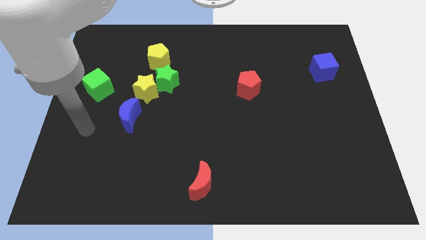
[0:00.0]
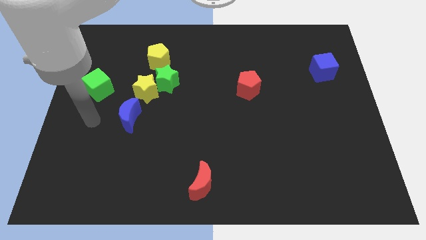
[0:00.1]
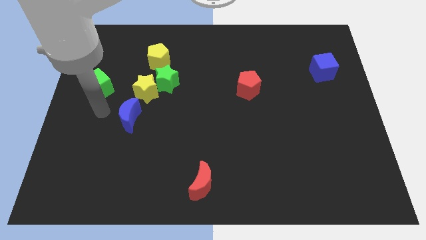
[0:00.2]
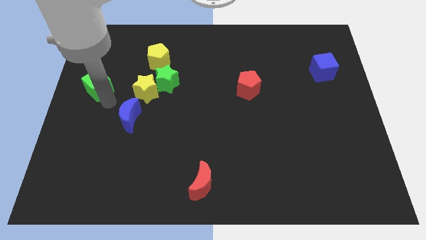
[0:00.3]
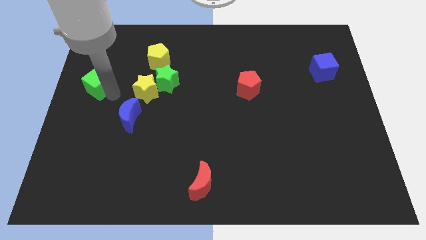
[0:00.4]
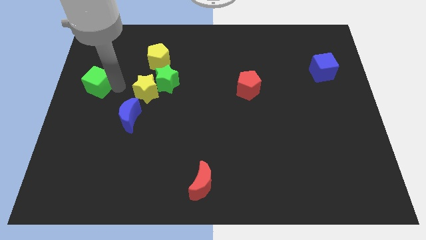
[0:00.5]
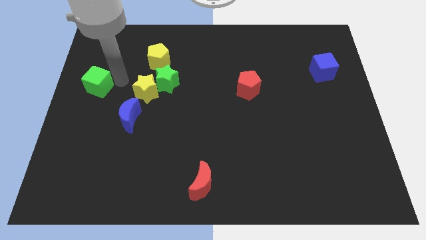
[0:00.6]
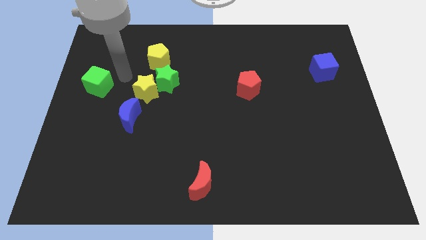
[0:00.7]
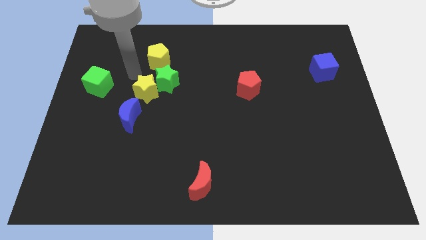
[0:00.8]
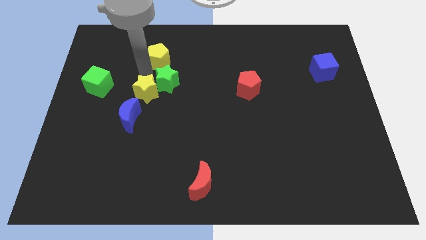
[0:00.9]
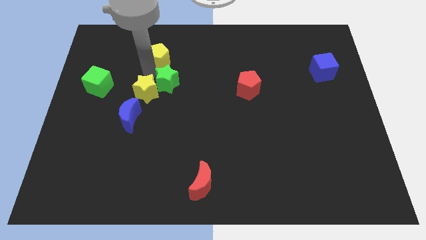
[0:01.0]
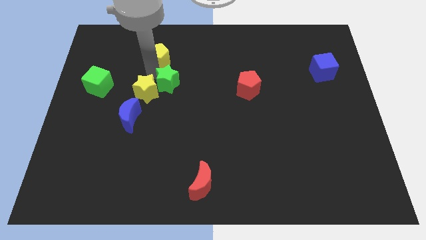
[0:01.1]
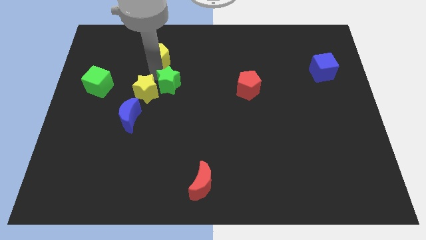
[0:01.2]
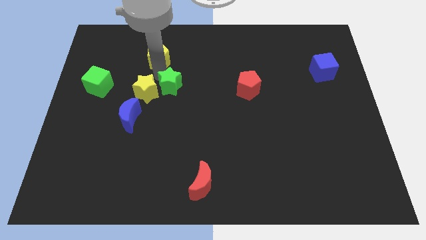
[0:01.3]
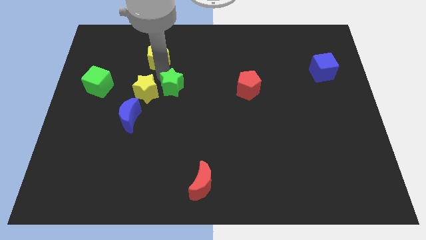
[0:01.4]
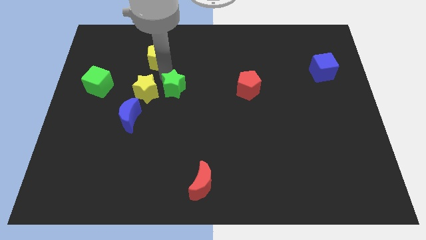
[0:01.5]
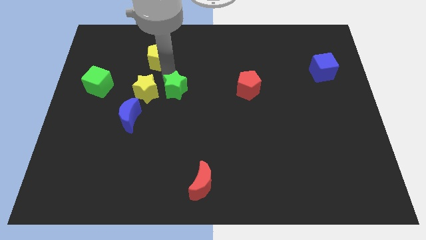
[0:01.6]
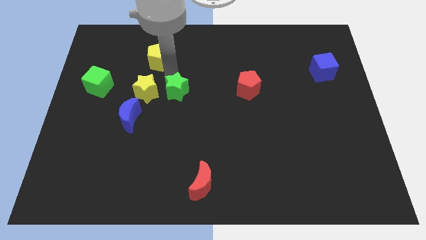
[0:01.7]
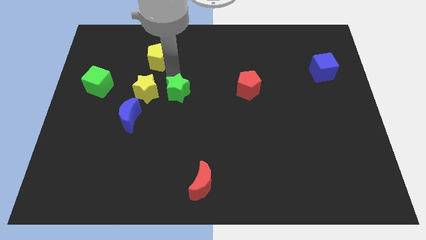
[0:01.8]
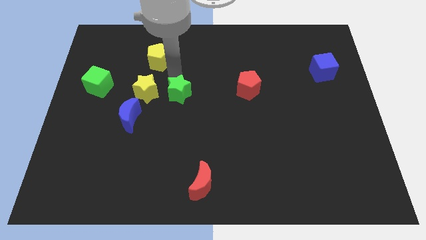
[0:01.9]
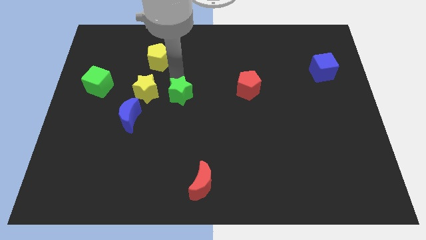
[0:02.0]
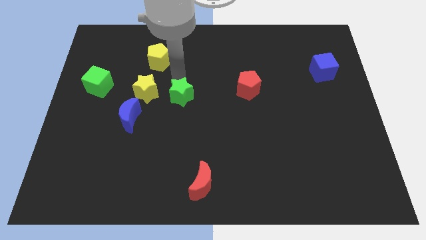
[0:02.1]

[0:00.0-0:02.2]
pull the green star apart from the yellow star and yellow pentagon

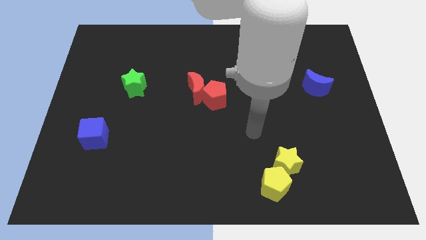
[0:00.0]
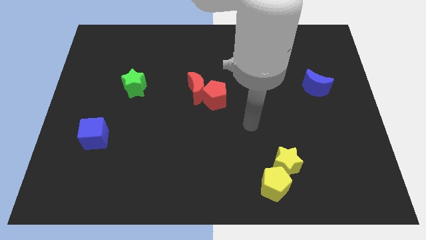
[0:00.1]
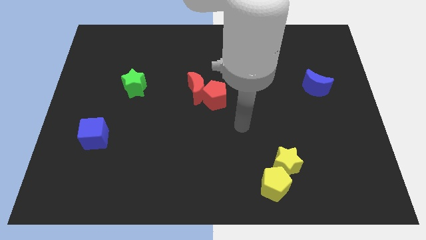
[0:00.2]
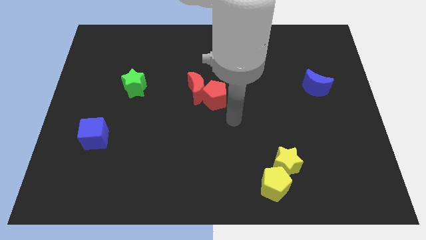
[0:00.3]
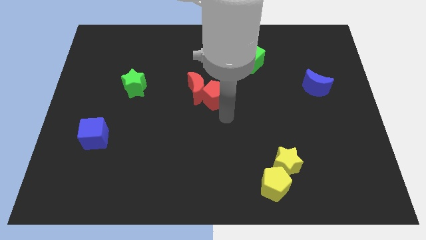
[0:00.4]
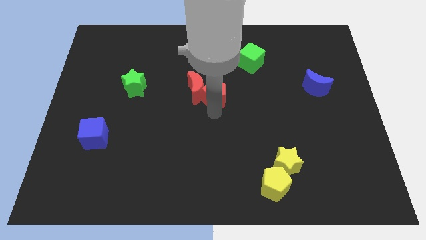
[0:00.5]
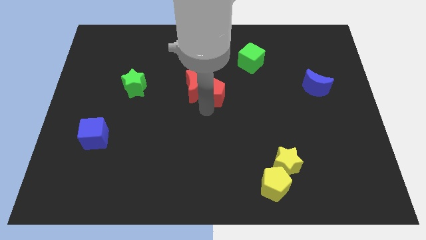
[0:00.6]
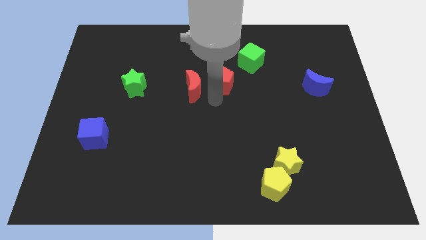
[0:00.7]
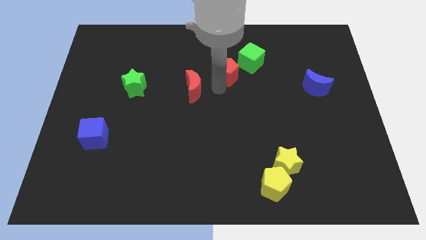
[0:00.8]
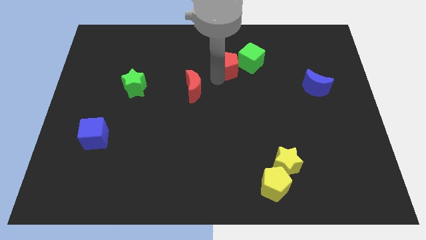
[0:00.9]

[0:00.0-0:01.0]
move the red moon away from the red pentagon

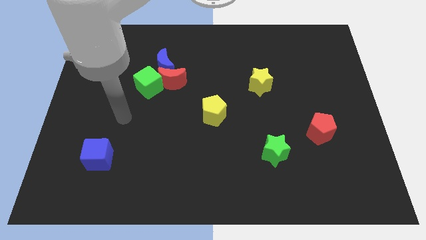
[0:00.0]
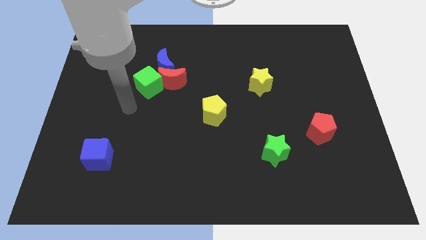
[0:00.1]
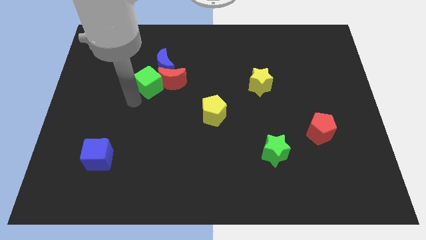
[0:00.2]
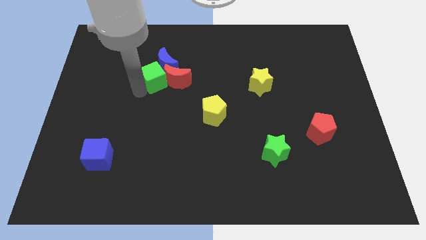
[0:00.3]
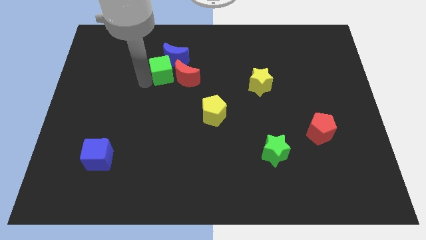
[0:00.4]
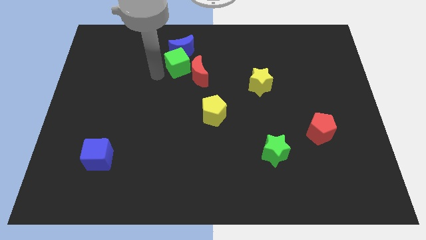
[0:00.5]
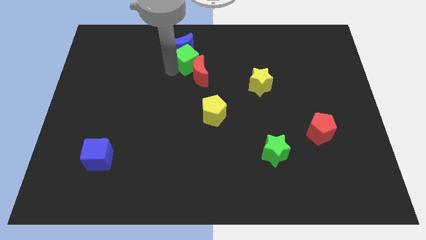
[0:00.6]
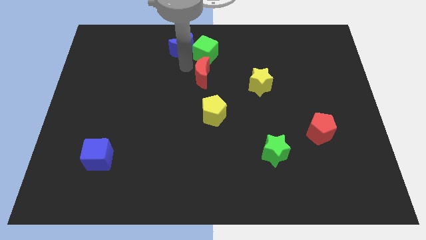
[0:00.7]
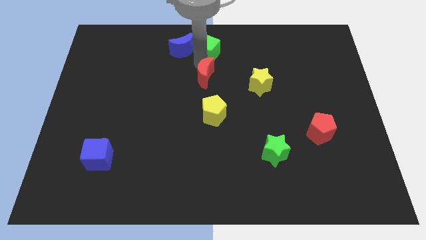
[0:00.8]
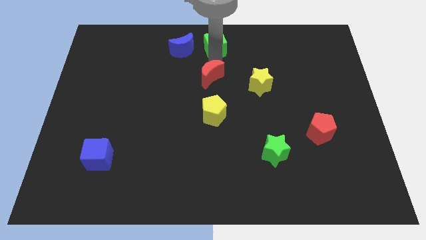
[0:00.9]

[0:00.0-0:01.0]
separate the red moon from the blue moon and green cube

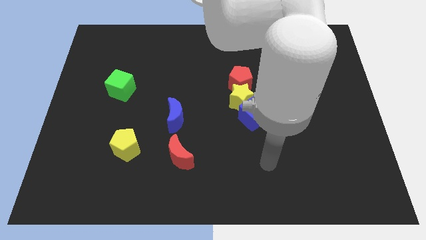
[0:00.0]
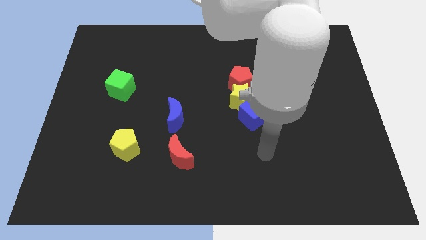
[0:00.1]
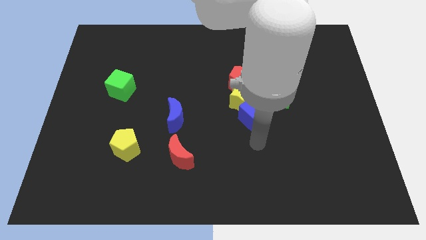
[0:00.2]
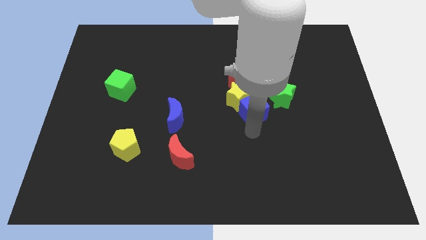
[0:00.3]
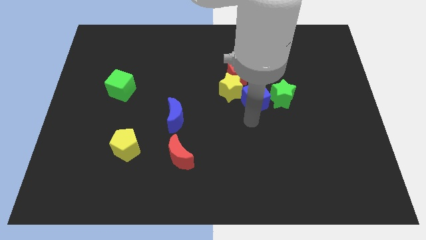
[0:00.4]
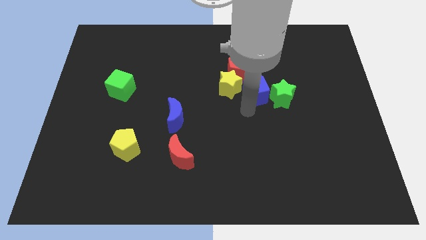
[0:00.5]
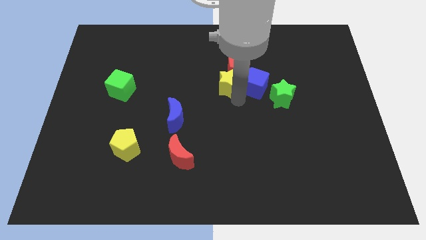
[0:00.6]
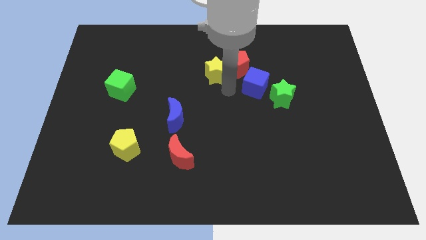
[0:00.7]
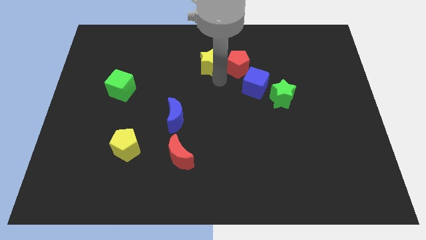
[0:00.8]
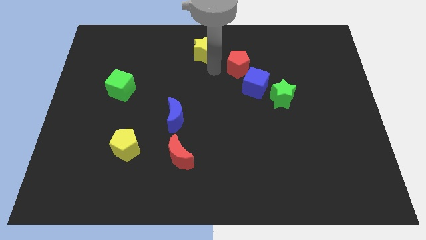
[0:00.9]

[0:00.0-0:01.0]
separate the red pentagon from the yellow star

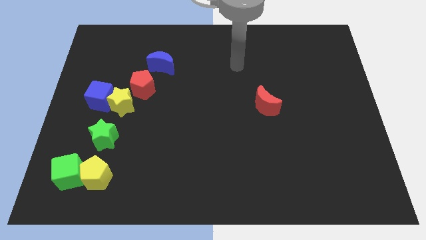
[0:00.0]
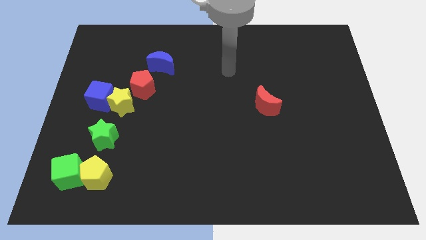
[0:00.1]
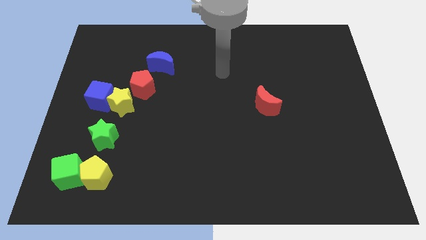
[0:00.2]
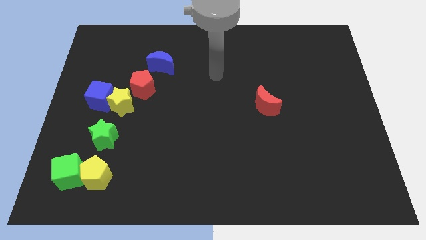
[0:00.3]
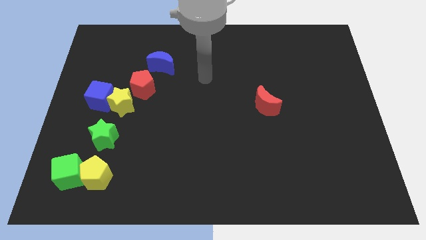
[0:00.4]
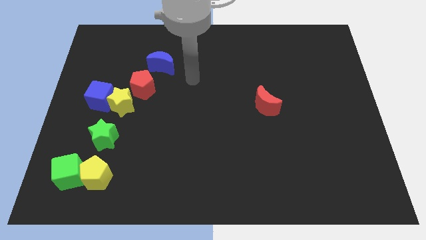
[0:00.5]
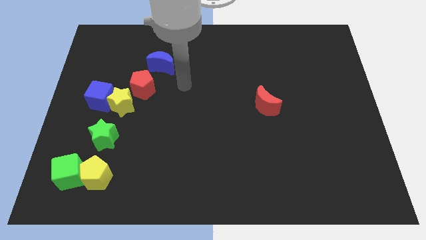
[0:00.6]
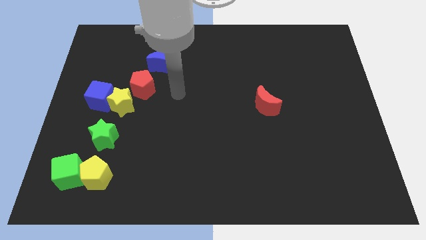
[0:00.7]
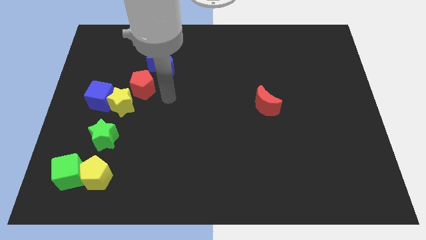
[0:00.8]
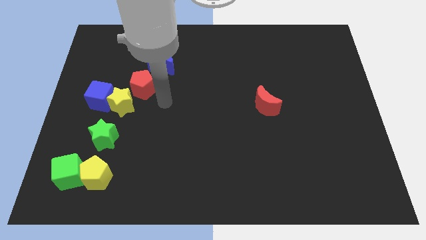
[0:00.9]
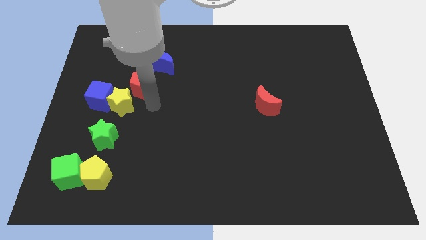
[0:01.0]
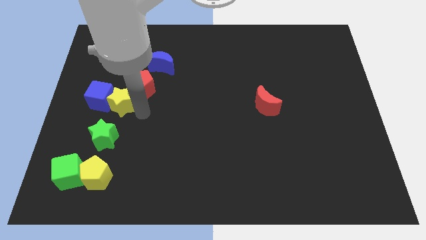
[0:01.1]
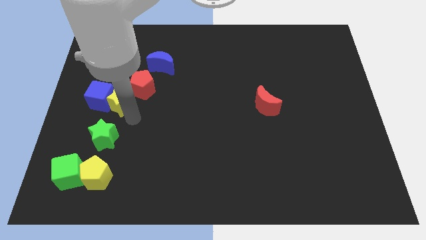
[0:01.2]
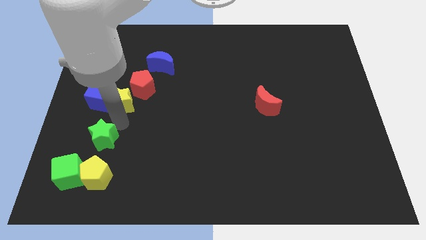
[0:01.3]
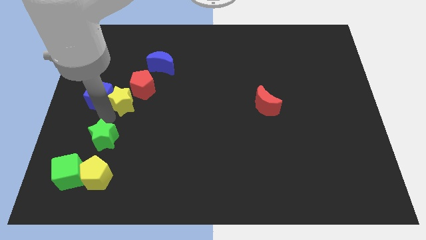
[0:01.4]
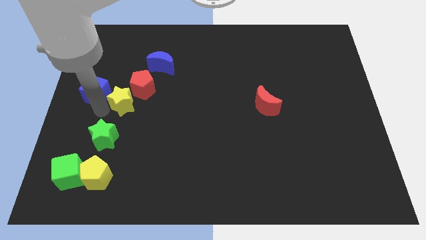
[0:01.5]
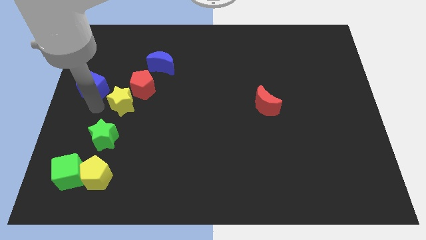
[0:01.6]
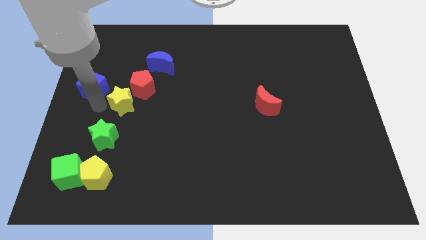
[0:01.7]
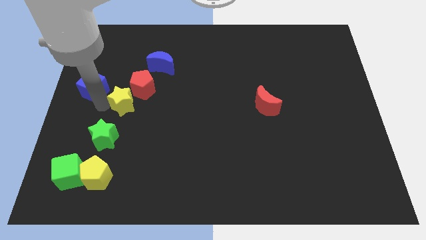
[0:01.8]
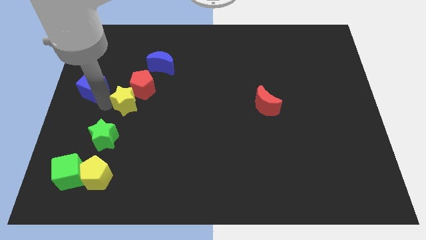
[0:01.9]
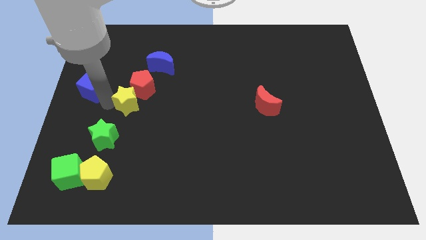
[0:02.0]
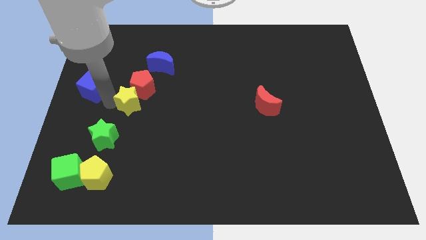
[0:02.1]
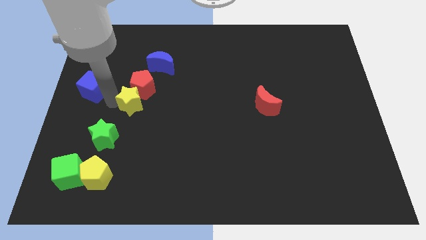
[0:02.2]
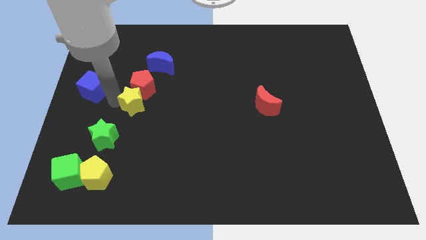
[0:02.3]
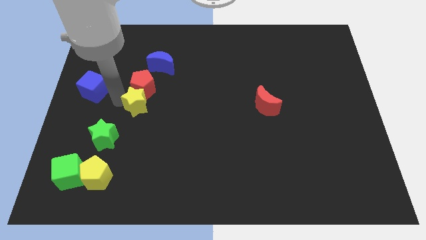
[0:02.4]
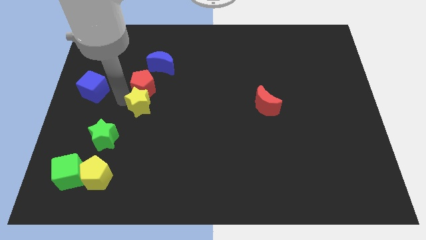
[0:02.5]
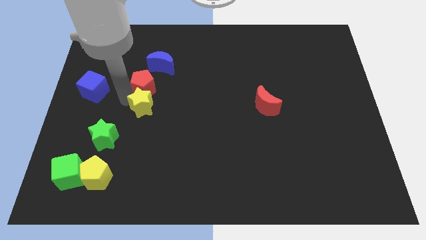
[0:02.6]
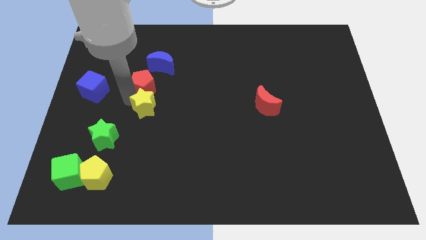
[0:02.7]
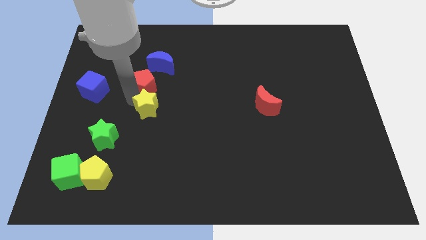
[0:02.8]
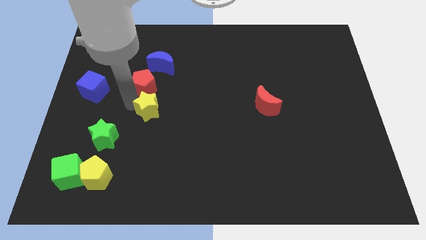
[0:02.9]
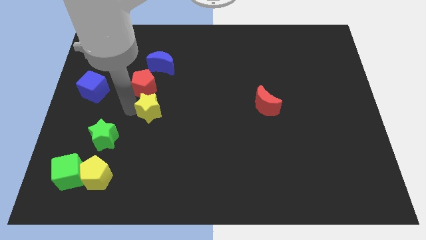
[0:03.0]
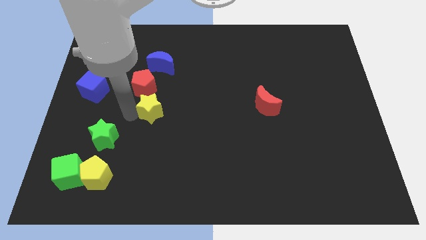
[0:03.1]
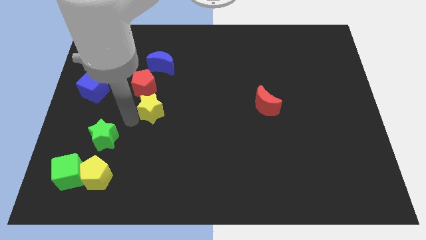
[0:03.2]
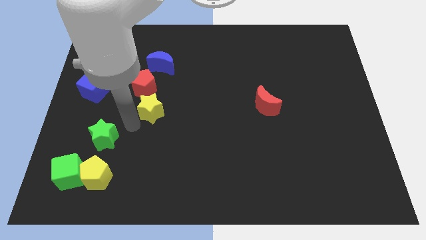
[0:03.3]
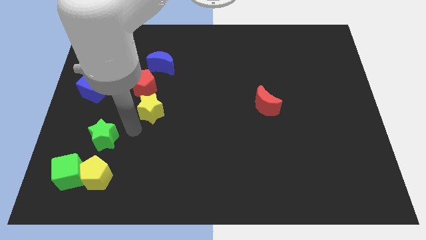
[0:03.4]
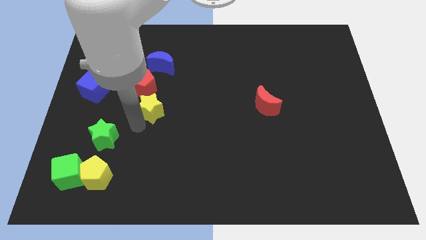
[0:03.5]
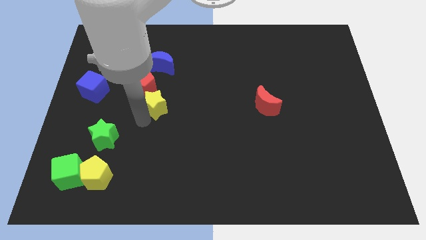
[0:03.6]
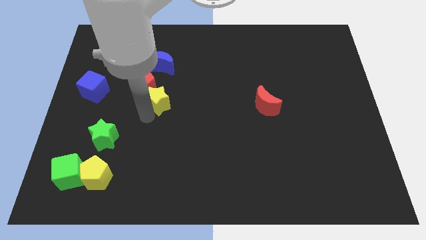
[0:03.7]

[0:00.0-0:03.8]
pull the yellow star apart from the blue cube, red pentagon, and green star

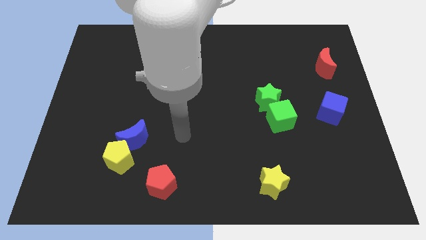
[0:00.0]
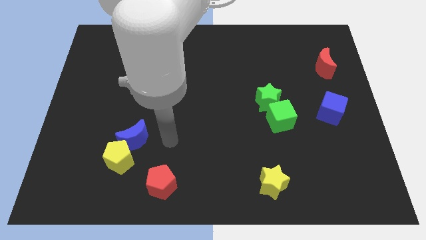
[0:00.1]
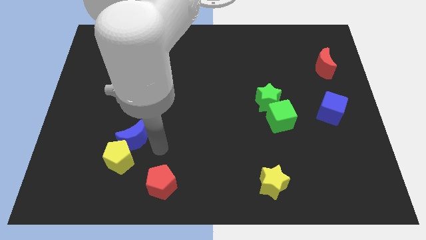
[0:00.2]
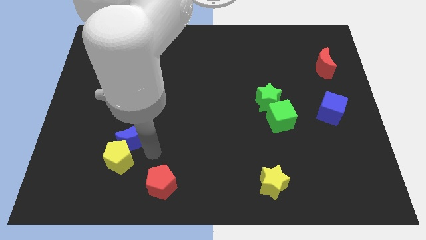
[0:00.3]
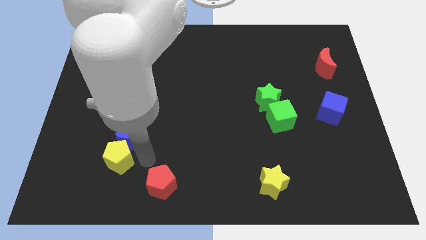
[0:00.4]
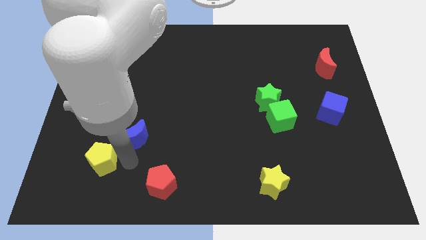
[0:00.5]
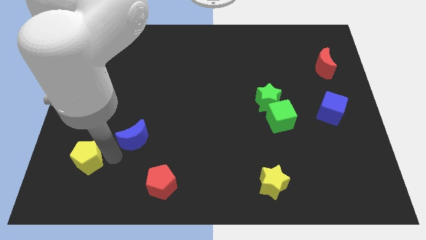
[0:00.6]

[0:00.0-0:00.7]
pull the blue moon apart from the yellow pentagon
